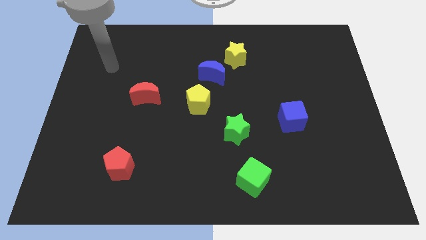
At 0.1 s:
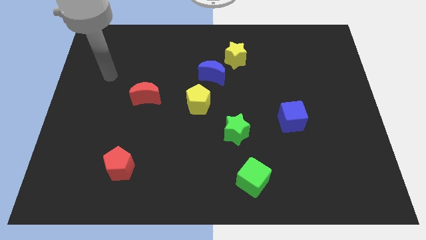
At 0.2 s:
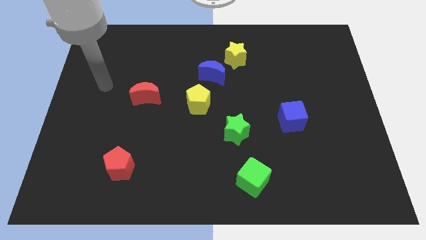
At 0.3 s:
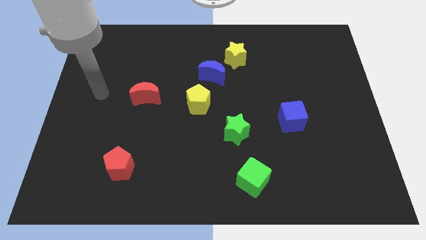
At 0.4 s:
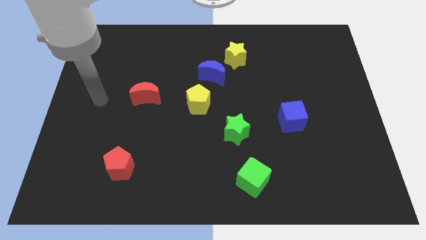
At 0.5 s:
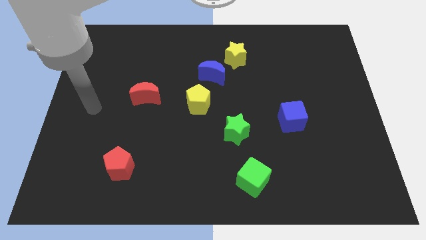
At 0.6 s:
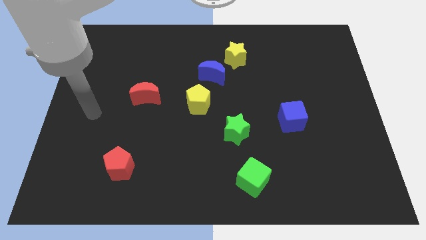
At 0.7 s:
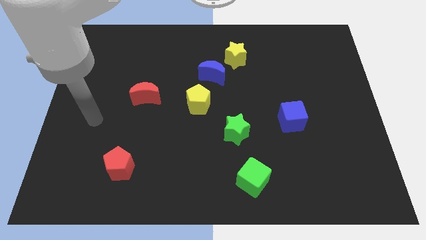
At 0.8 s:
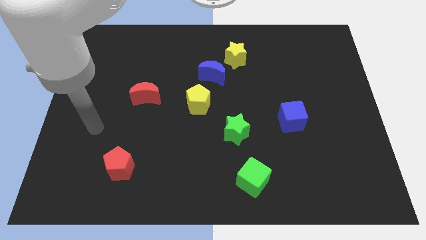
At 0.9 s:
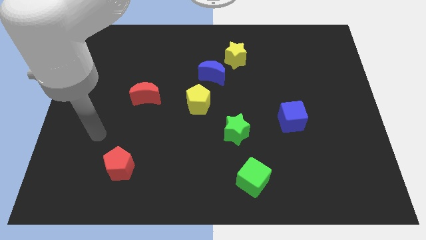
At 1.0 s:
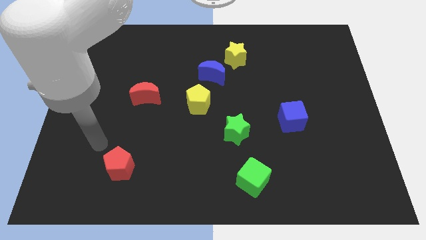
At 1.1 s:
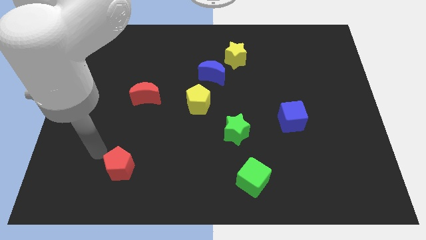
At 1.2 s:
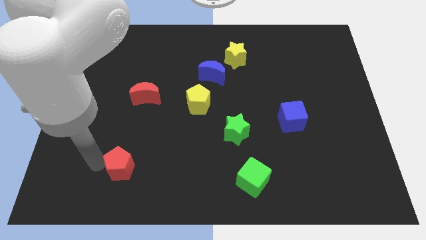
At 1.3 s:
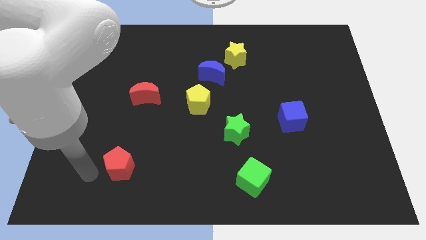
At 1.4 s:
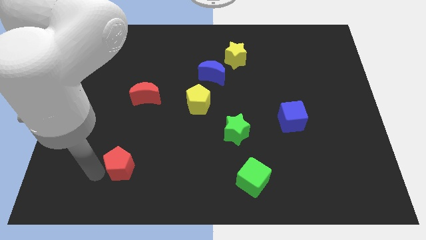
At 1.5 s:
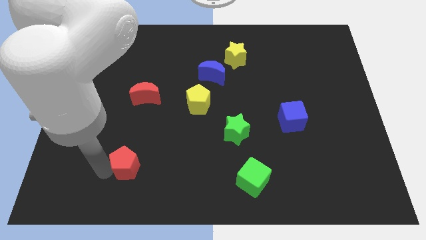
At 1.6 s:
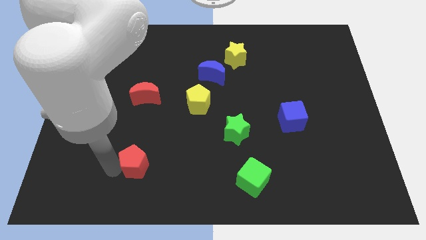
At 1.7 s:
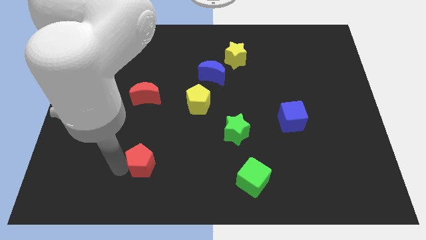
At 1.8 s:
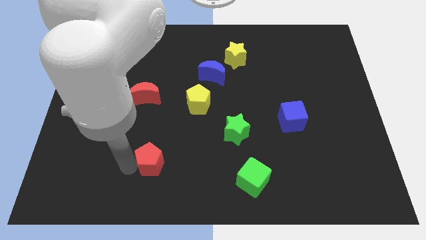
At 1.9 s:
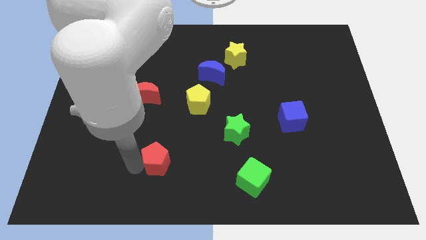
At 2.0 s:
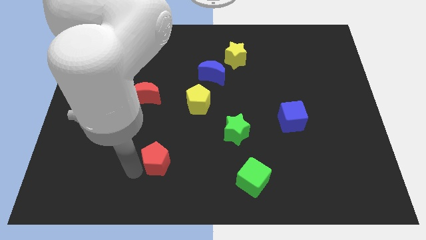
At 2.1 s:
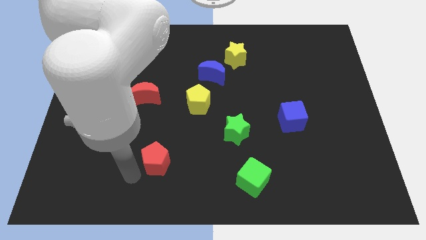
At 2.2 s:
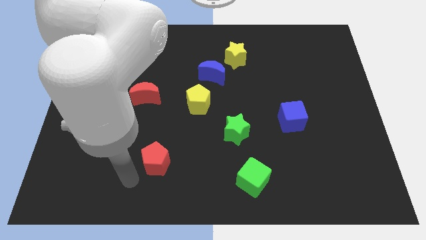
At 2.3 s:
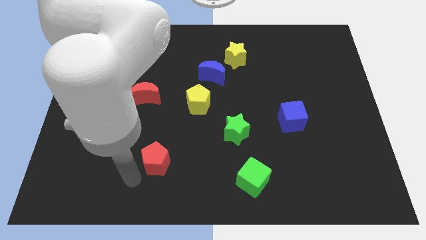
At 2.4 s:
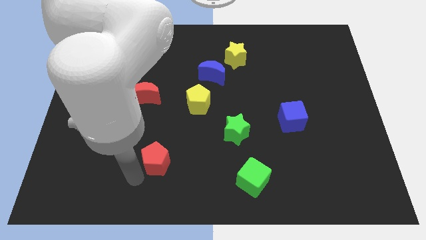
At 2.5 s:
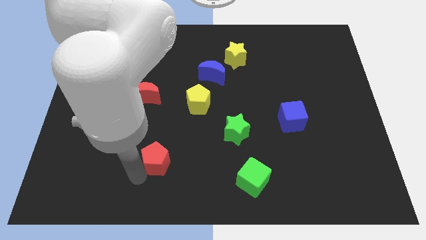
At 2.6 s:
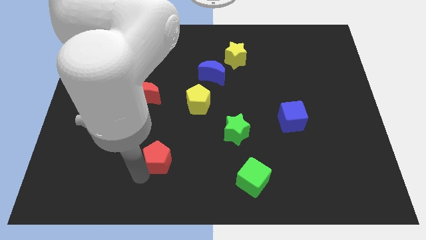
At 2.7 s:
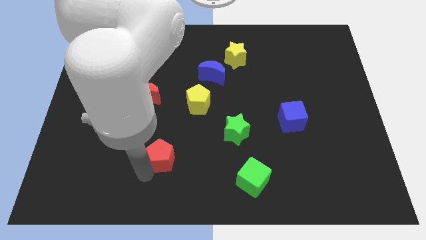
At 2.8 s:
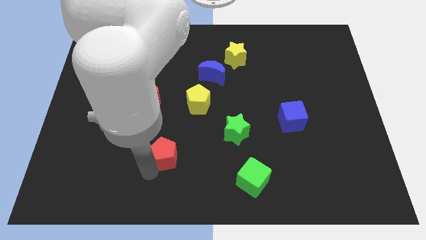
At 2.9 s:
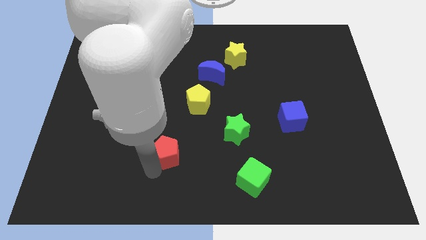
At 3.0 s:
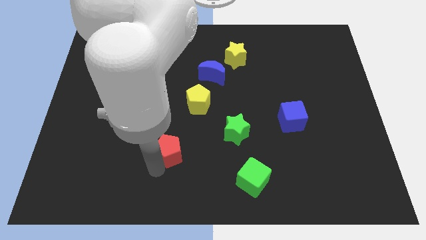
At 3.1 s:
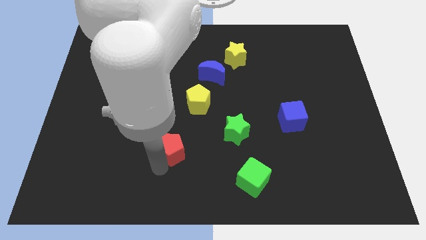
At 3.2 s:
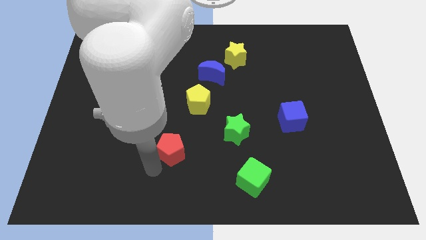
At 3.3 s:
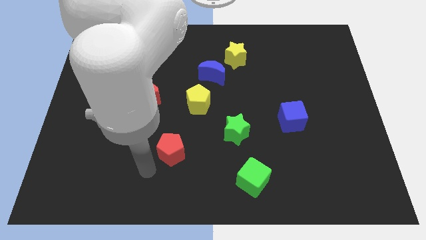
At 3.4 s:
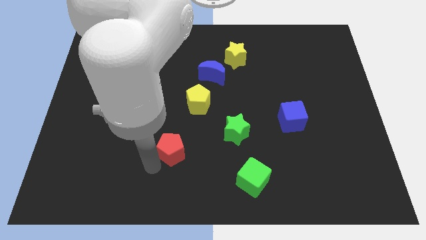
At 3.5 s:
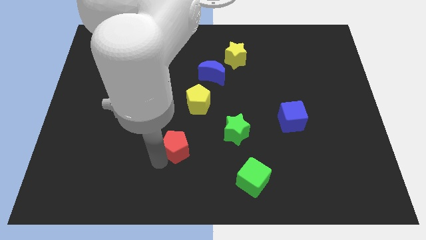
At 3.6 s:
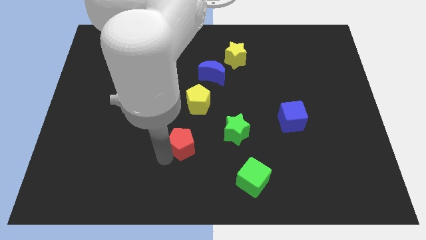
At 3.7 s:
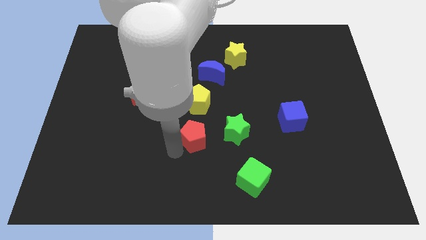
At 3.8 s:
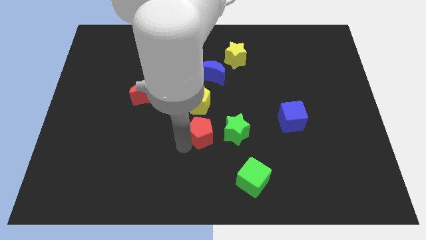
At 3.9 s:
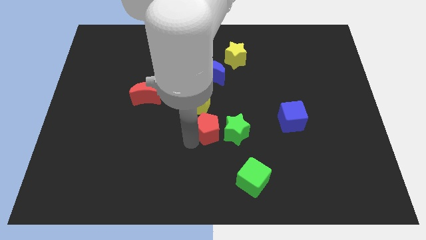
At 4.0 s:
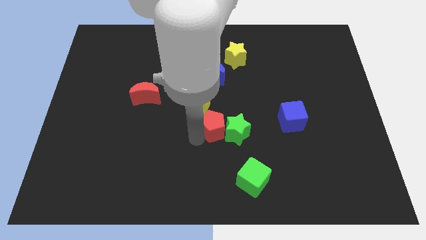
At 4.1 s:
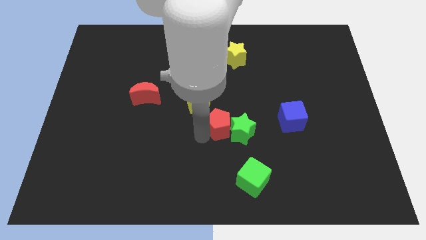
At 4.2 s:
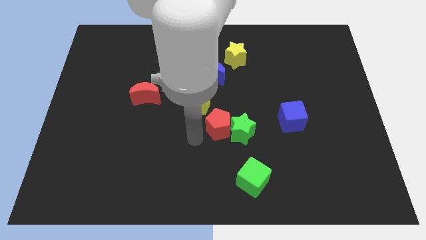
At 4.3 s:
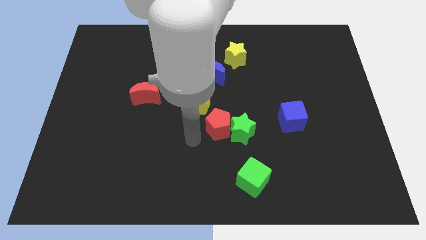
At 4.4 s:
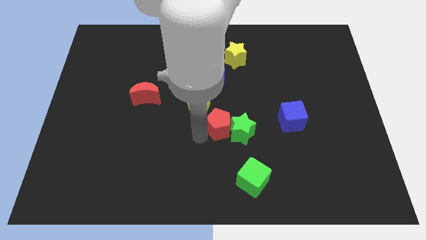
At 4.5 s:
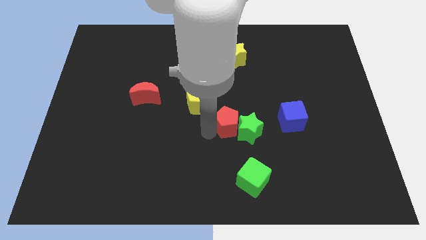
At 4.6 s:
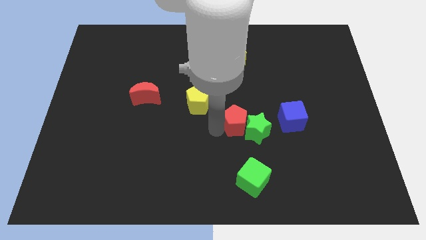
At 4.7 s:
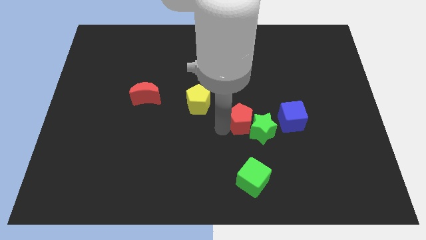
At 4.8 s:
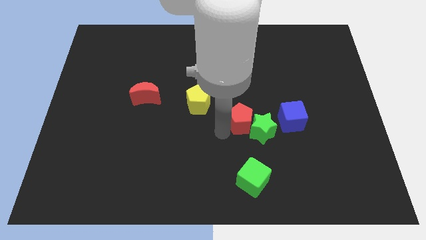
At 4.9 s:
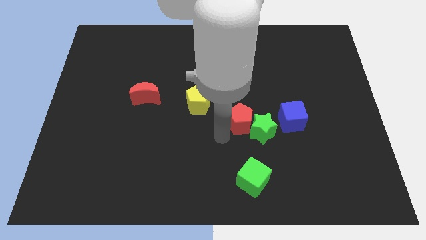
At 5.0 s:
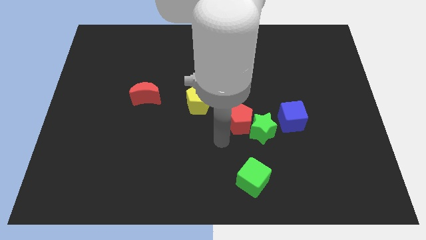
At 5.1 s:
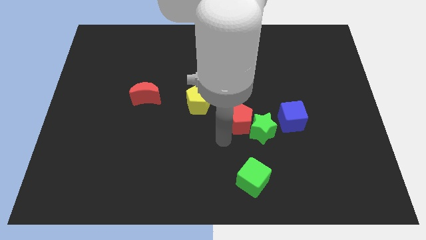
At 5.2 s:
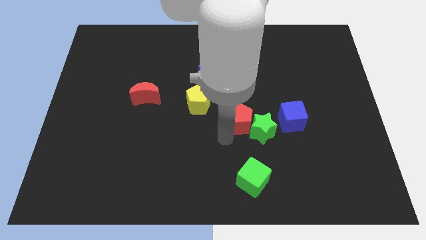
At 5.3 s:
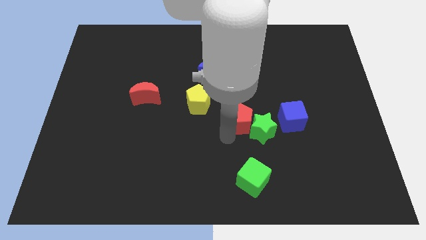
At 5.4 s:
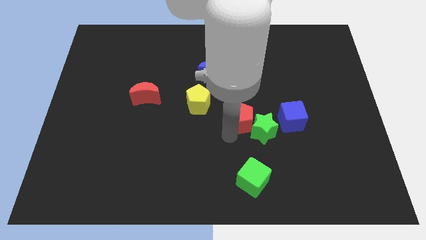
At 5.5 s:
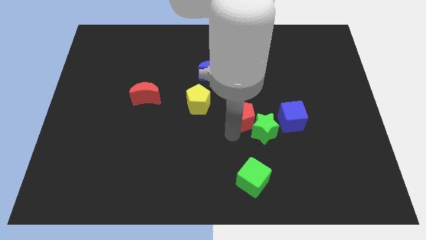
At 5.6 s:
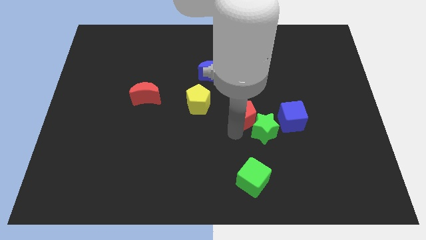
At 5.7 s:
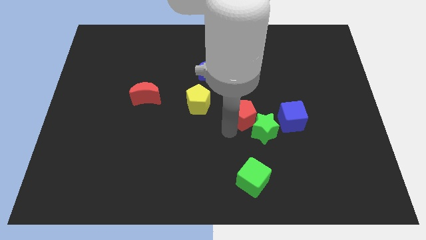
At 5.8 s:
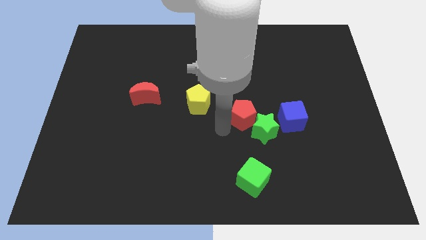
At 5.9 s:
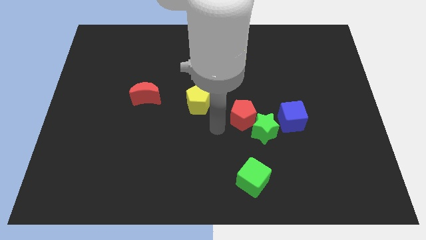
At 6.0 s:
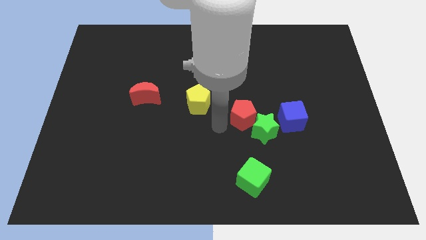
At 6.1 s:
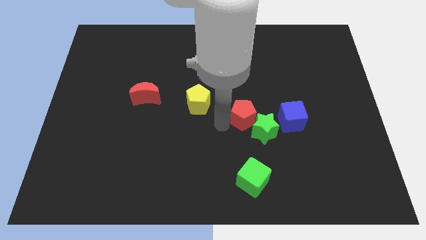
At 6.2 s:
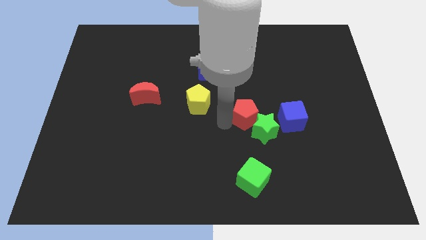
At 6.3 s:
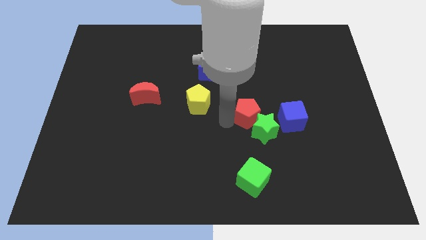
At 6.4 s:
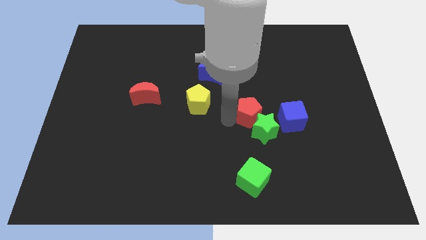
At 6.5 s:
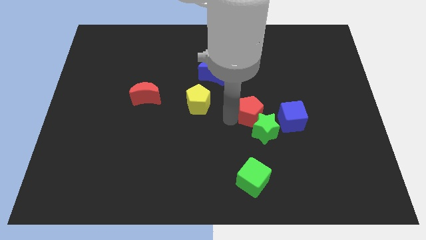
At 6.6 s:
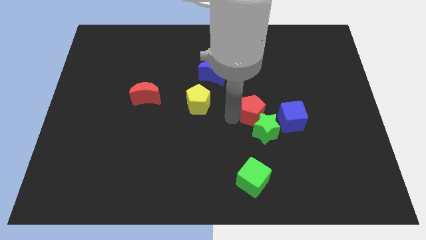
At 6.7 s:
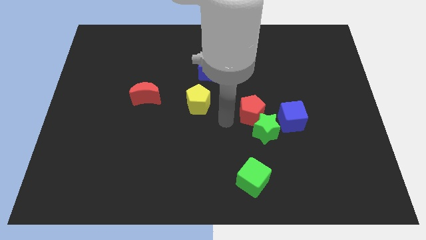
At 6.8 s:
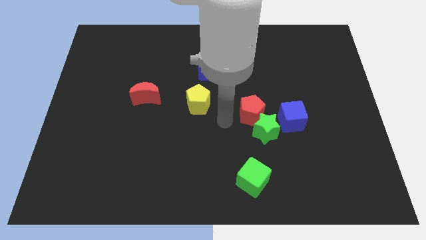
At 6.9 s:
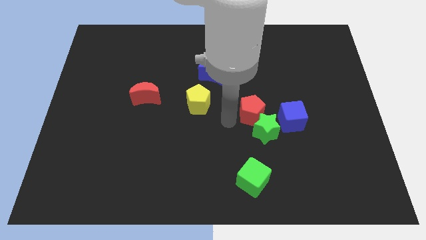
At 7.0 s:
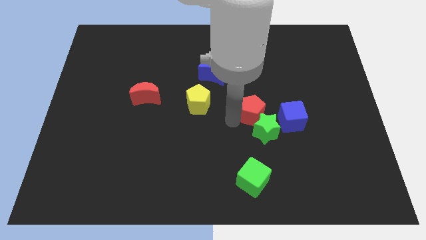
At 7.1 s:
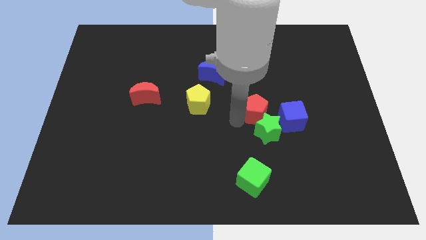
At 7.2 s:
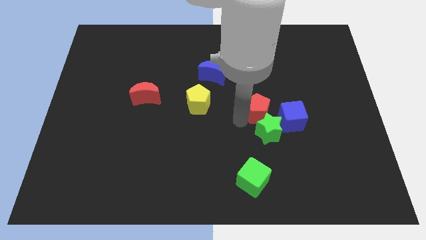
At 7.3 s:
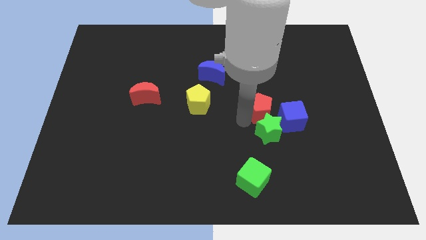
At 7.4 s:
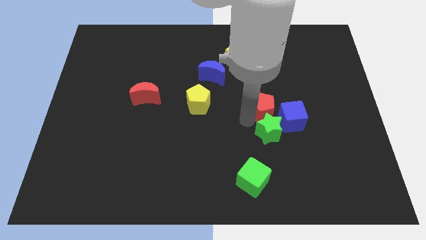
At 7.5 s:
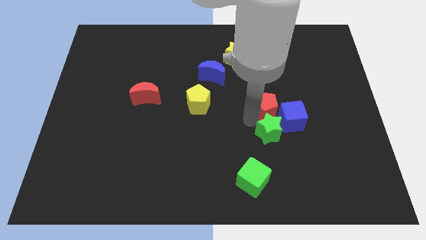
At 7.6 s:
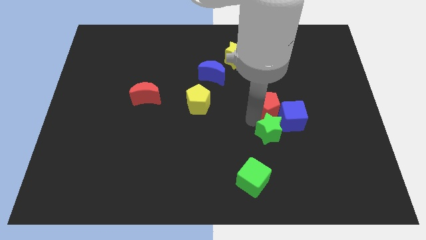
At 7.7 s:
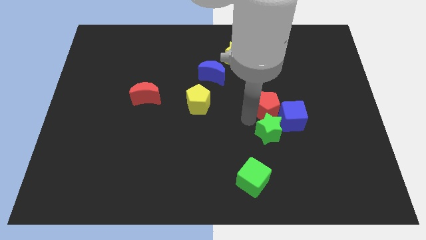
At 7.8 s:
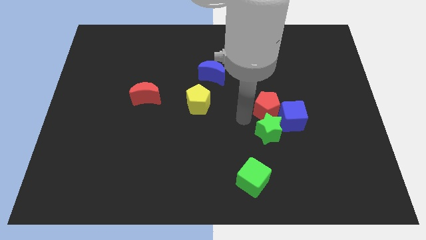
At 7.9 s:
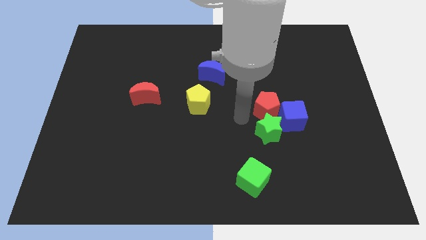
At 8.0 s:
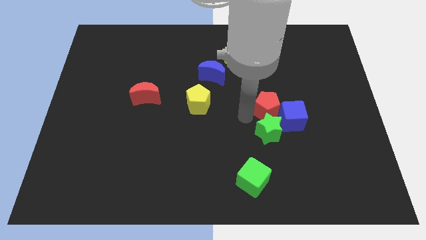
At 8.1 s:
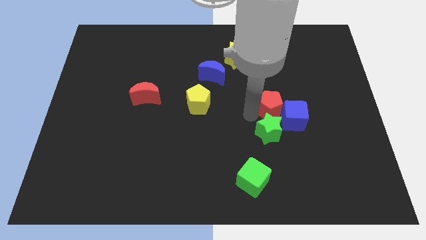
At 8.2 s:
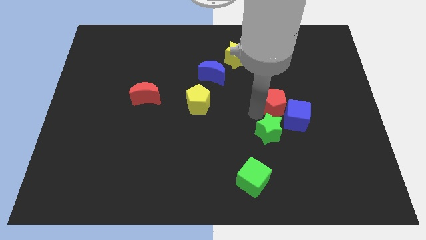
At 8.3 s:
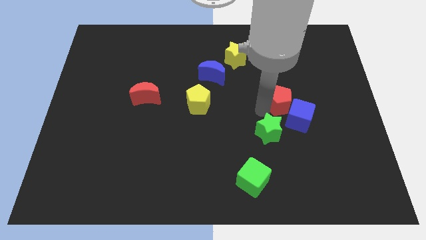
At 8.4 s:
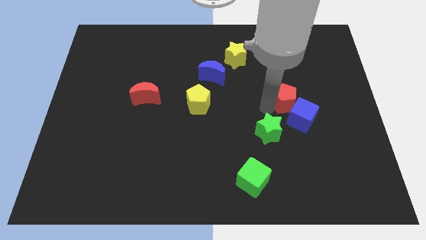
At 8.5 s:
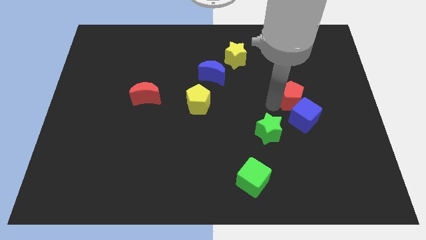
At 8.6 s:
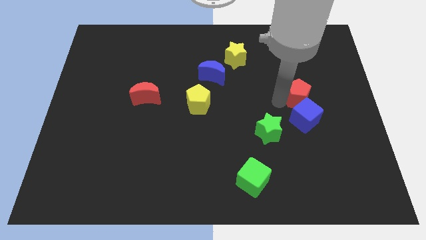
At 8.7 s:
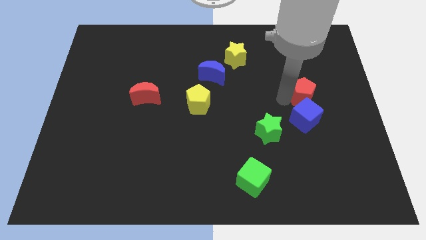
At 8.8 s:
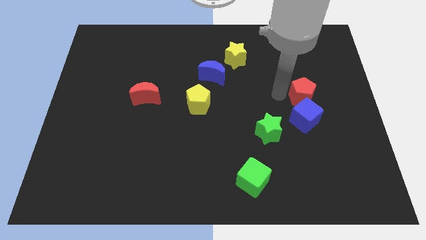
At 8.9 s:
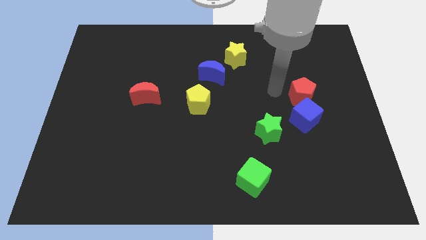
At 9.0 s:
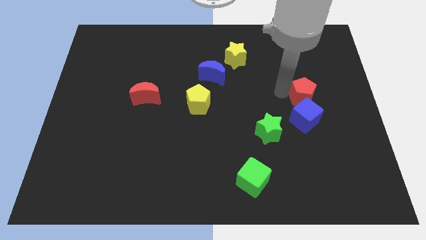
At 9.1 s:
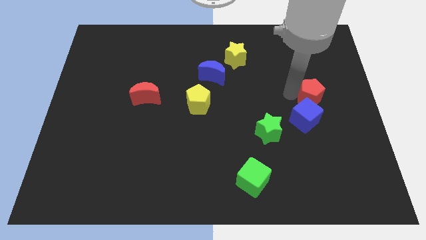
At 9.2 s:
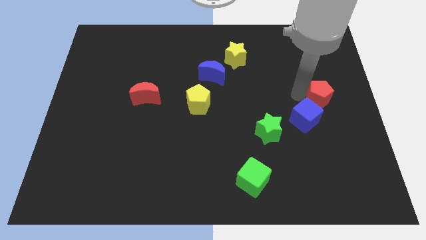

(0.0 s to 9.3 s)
slide the red pentagon to the center right
